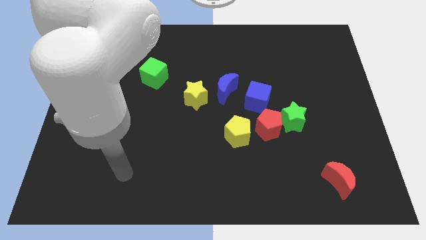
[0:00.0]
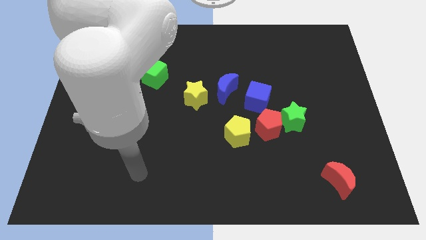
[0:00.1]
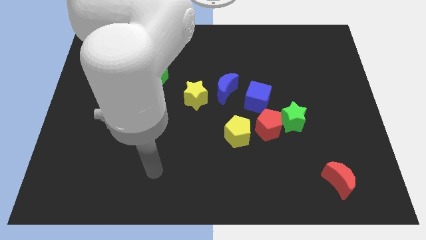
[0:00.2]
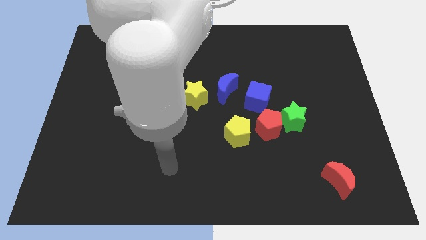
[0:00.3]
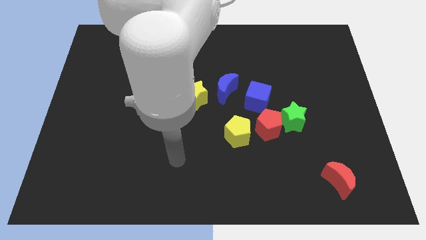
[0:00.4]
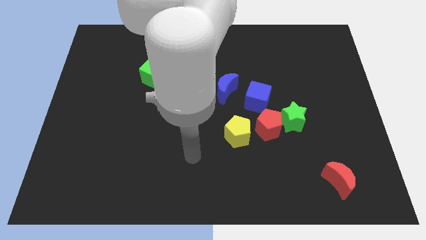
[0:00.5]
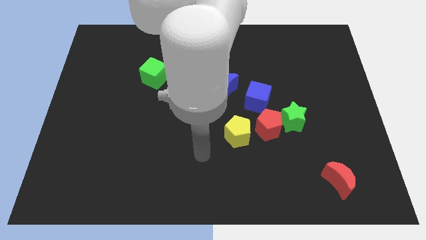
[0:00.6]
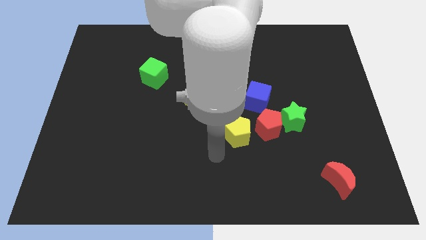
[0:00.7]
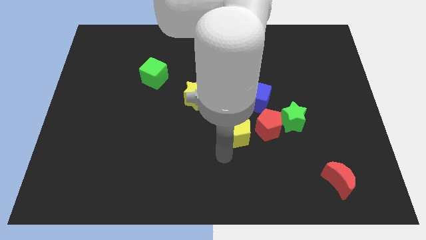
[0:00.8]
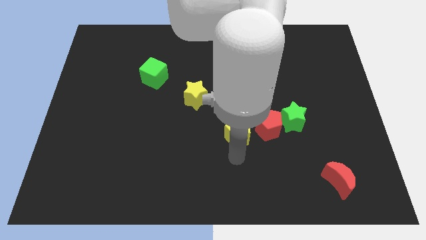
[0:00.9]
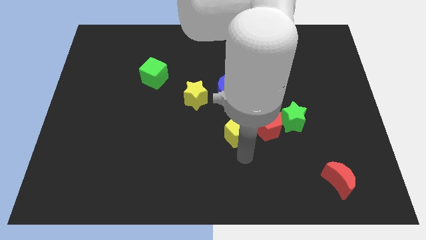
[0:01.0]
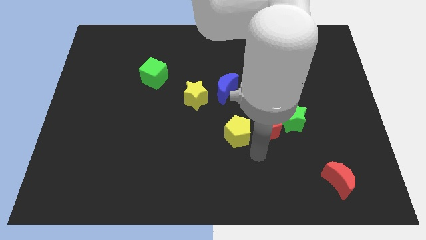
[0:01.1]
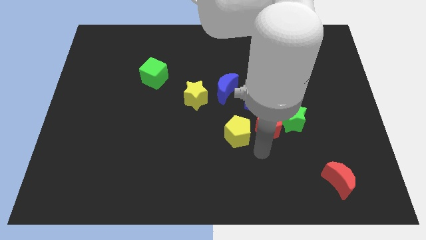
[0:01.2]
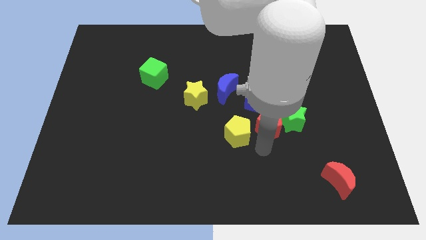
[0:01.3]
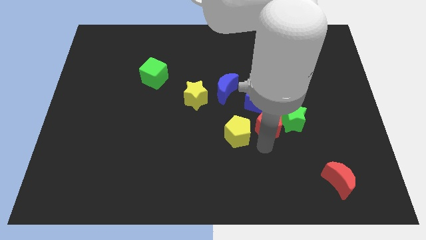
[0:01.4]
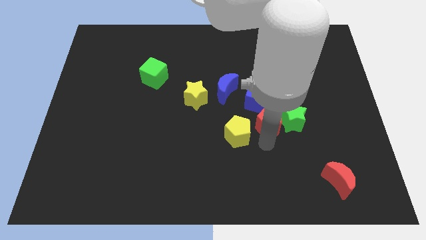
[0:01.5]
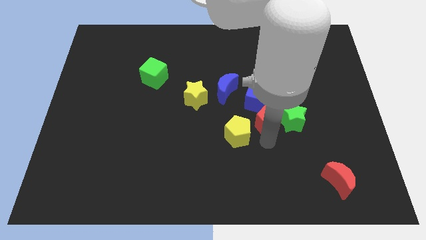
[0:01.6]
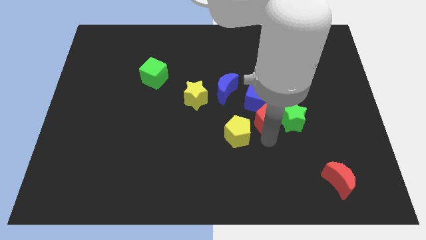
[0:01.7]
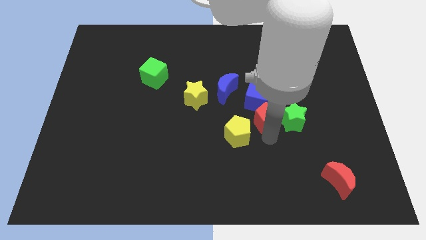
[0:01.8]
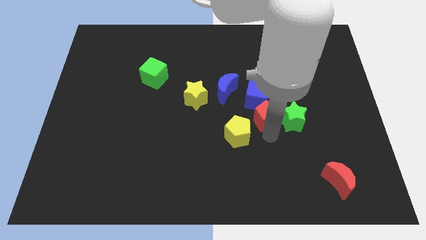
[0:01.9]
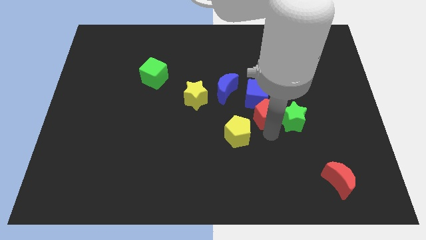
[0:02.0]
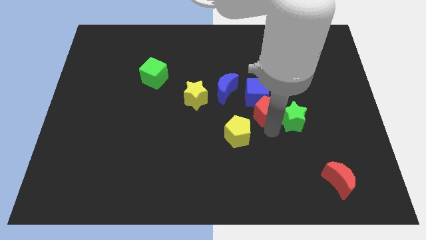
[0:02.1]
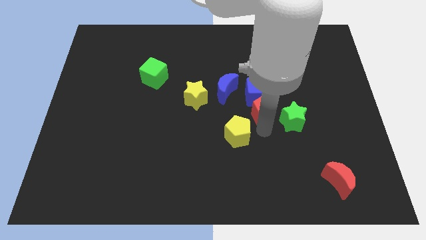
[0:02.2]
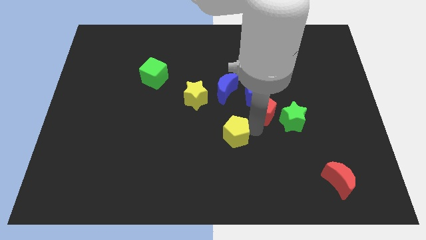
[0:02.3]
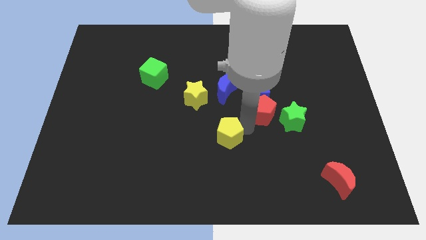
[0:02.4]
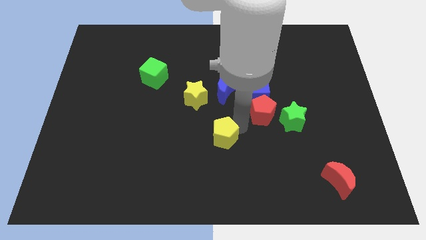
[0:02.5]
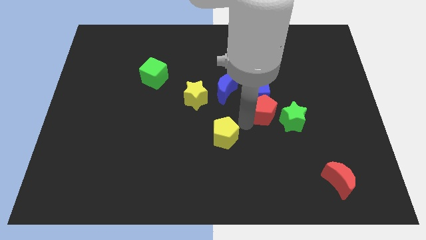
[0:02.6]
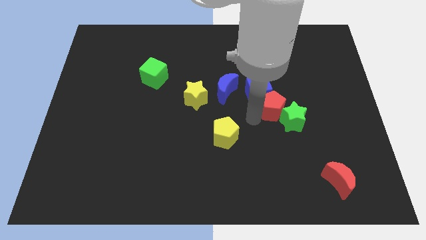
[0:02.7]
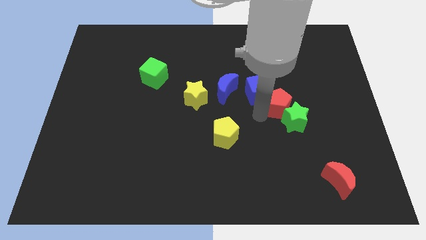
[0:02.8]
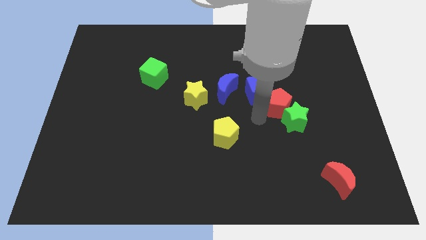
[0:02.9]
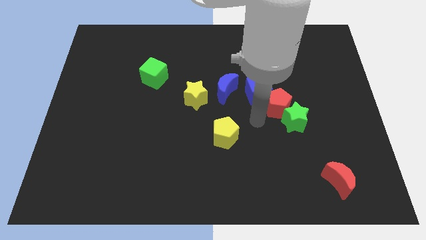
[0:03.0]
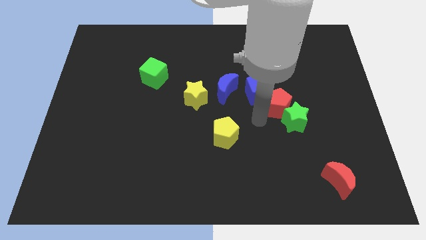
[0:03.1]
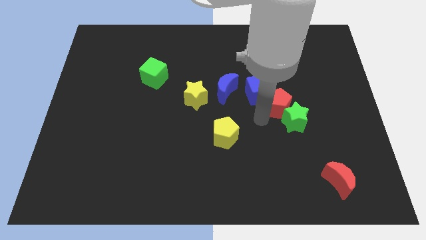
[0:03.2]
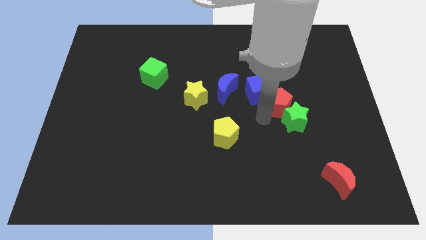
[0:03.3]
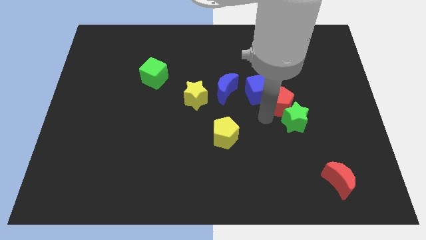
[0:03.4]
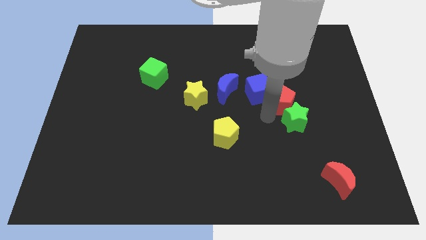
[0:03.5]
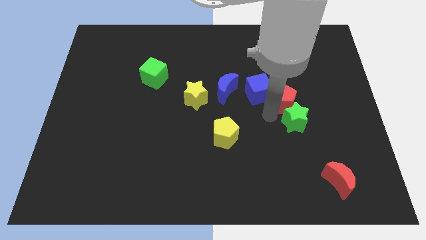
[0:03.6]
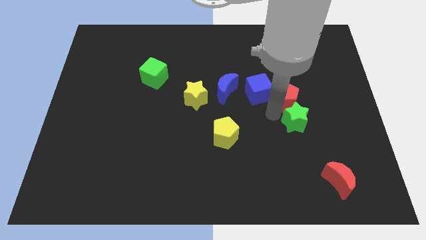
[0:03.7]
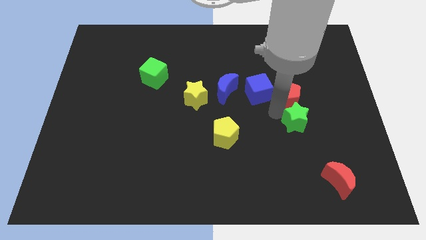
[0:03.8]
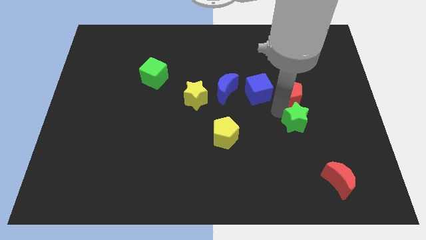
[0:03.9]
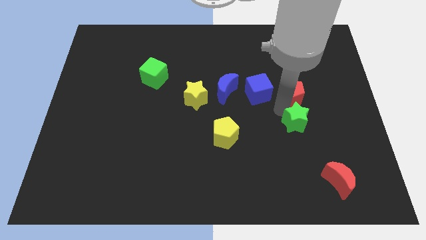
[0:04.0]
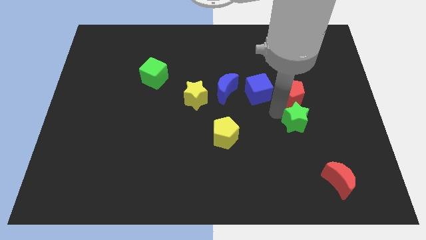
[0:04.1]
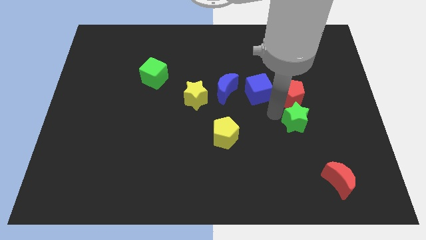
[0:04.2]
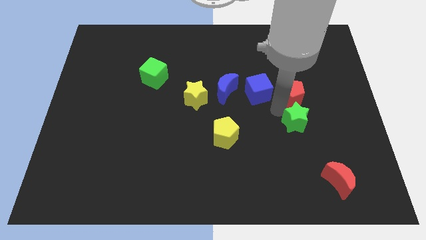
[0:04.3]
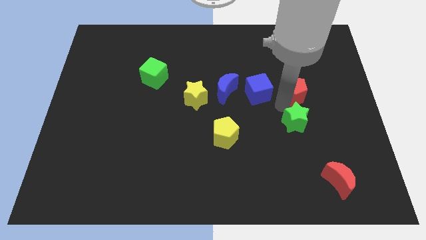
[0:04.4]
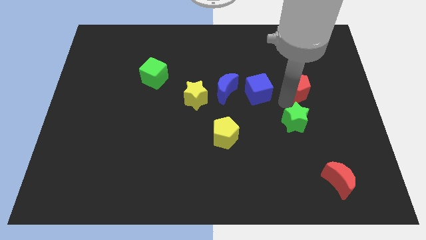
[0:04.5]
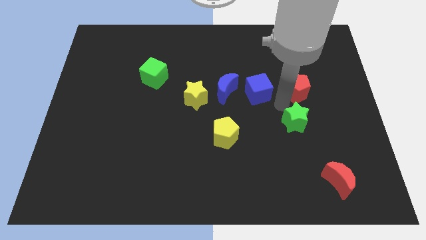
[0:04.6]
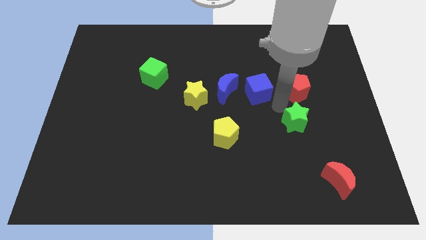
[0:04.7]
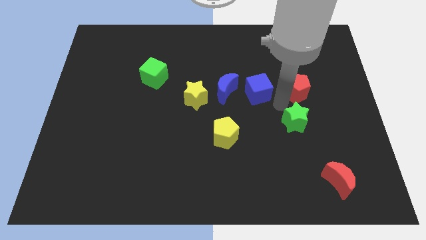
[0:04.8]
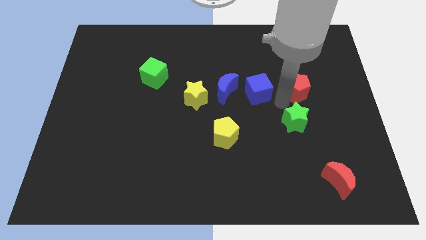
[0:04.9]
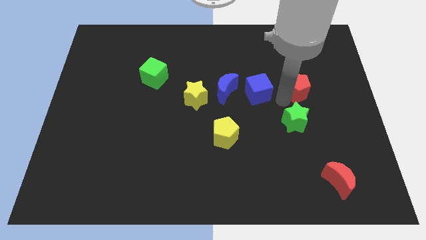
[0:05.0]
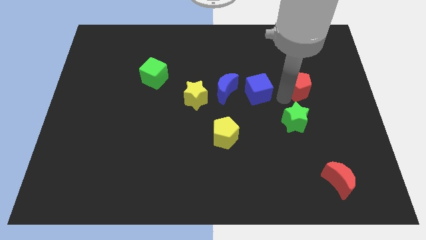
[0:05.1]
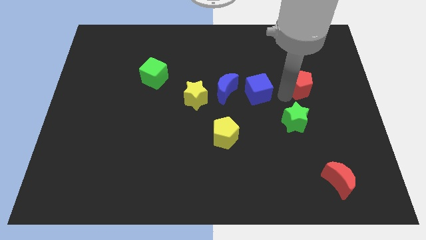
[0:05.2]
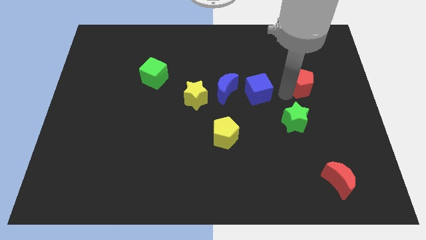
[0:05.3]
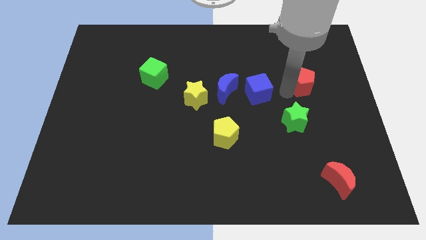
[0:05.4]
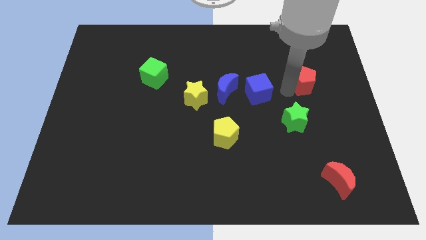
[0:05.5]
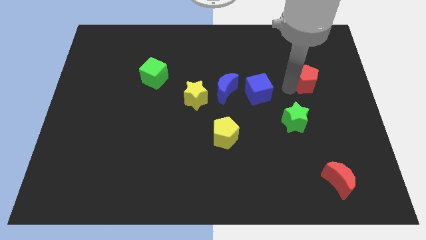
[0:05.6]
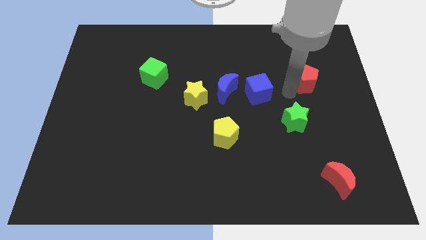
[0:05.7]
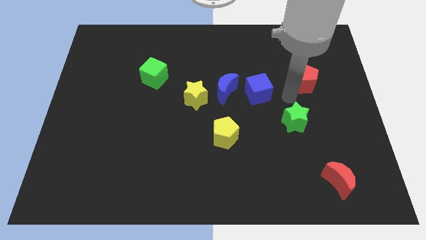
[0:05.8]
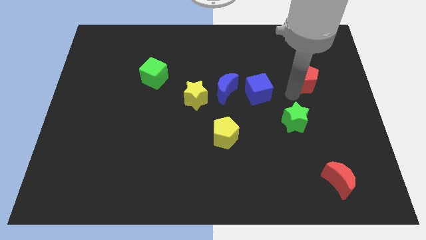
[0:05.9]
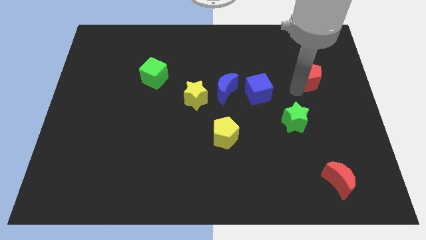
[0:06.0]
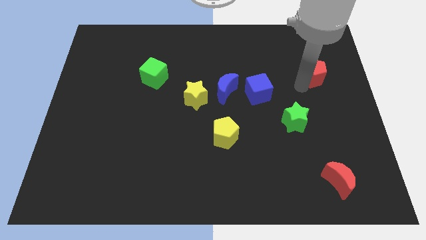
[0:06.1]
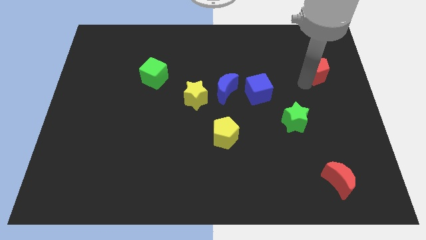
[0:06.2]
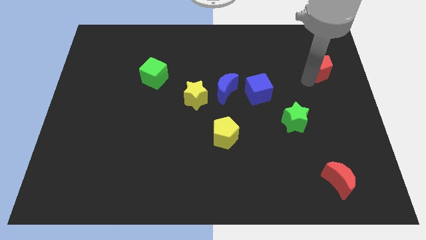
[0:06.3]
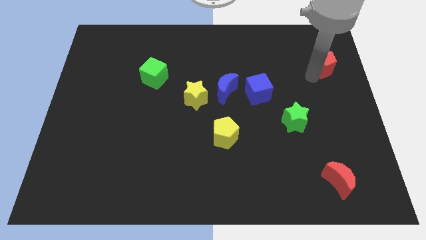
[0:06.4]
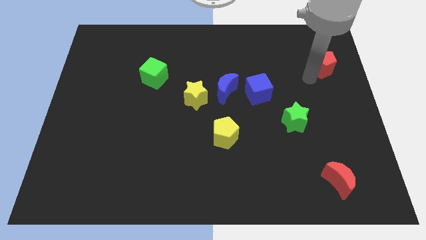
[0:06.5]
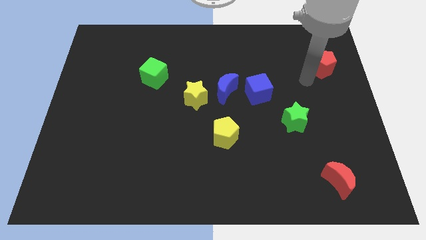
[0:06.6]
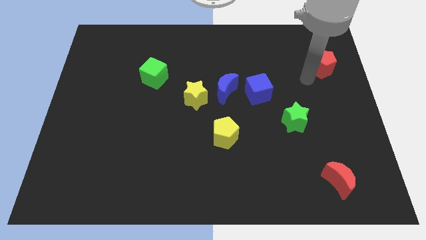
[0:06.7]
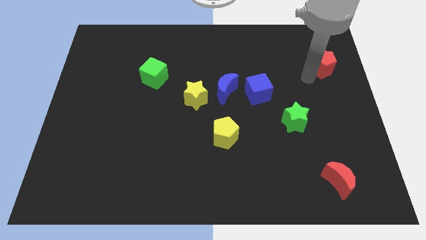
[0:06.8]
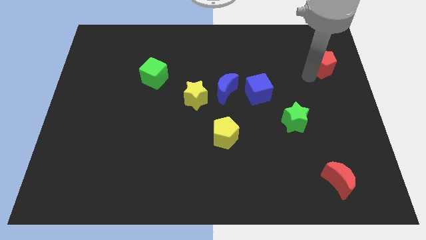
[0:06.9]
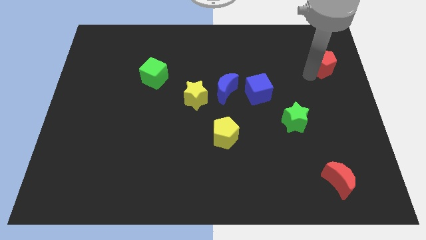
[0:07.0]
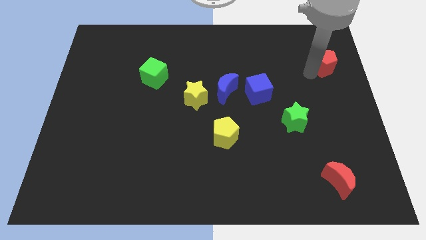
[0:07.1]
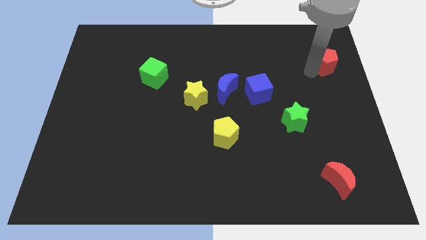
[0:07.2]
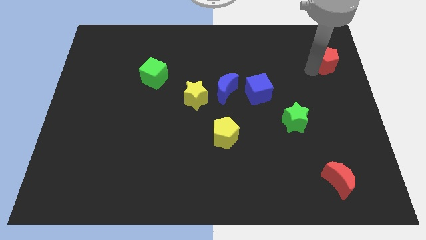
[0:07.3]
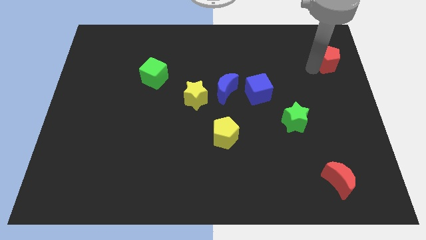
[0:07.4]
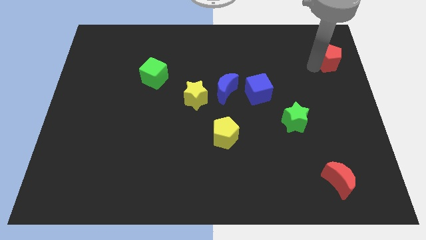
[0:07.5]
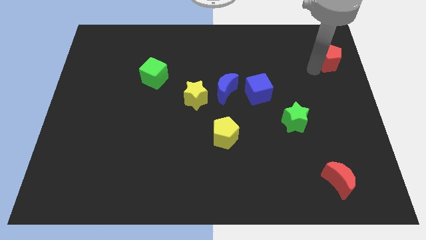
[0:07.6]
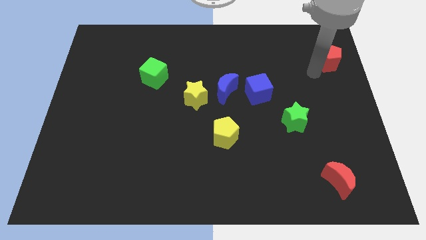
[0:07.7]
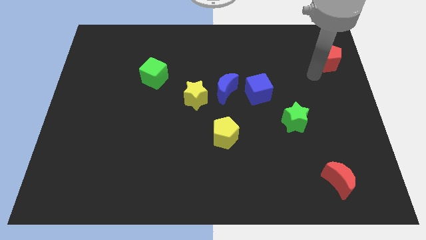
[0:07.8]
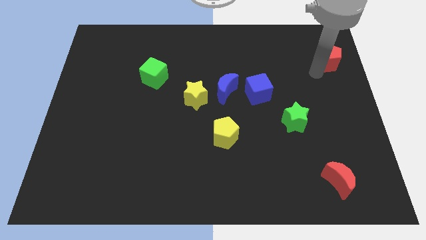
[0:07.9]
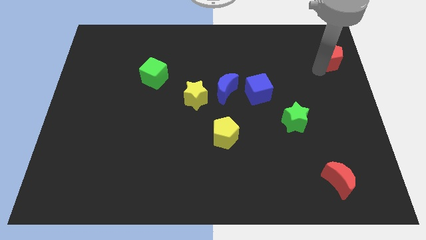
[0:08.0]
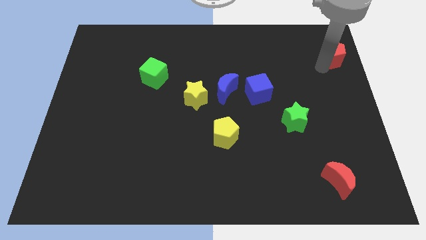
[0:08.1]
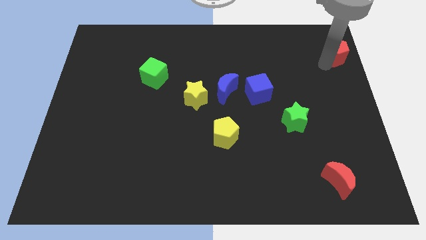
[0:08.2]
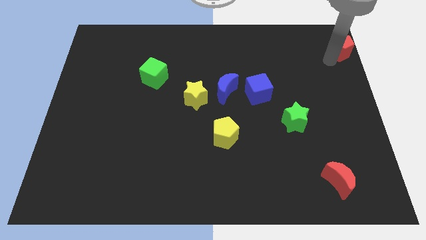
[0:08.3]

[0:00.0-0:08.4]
move the red pentagon to the top right of the board
